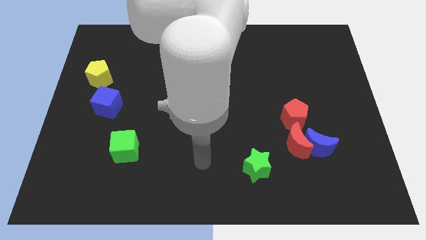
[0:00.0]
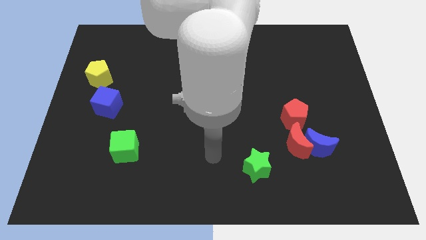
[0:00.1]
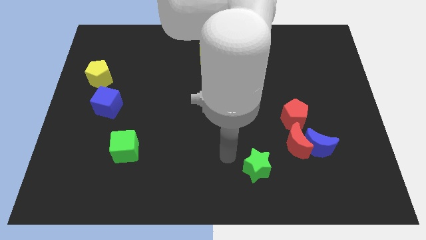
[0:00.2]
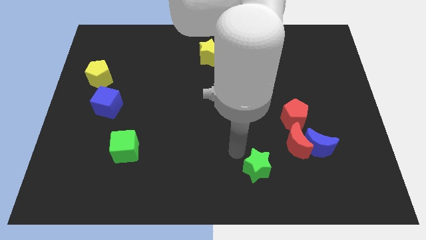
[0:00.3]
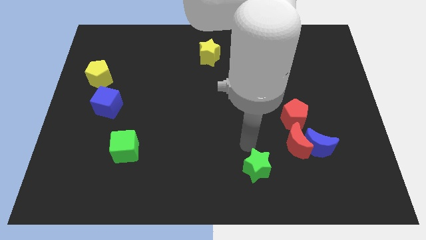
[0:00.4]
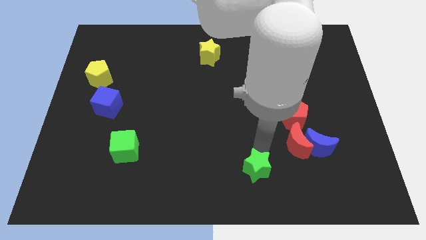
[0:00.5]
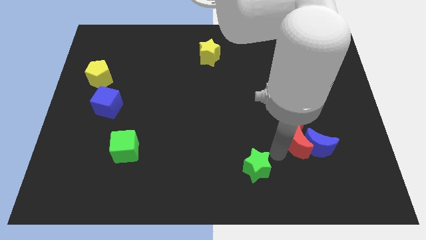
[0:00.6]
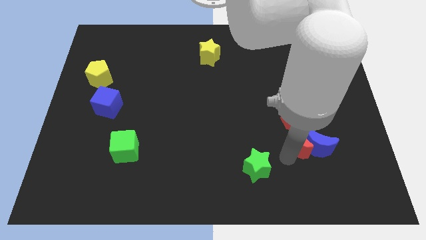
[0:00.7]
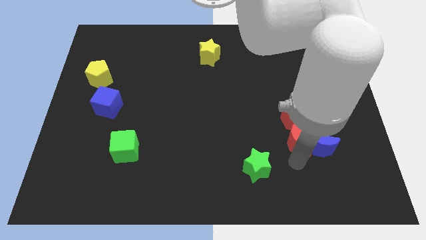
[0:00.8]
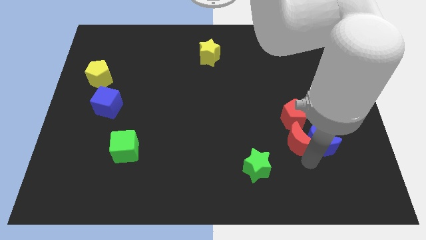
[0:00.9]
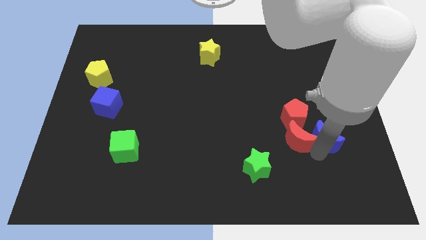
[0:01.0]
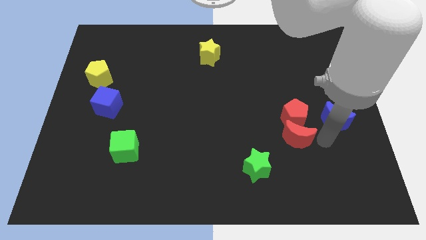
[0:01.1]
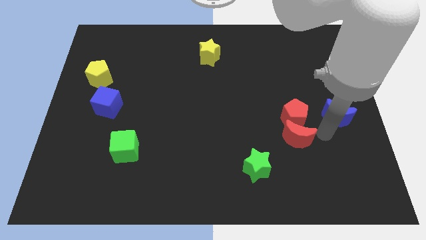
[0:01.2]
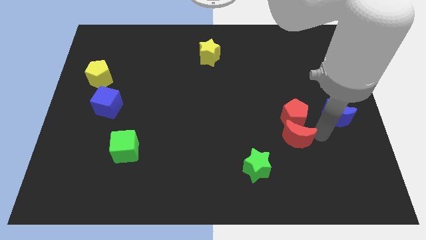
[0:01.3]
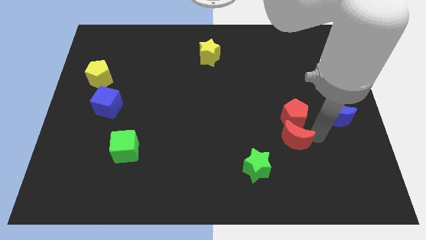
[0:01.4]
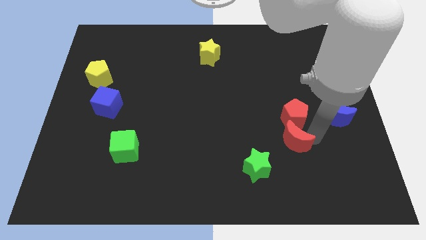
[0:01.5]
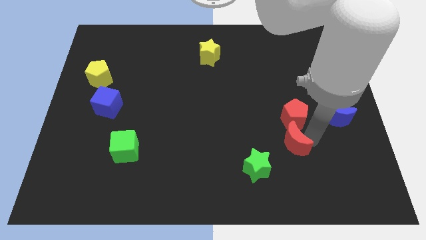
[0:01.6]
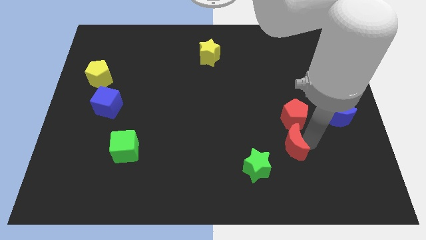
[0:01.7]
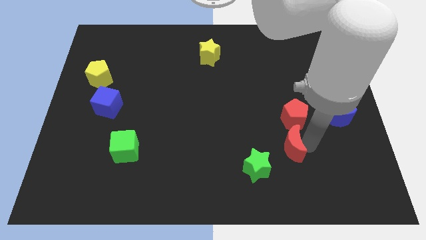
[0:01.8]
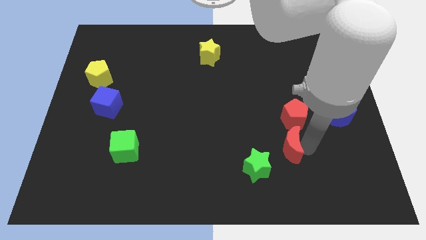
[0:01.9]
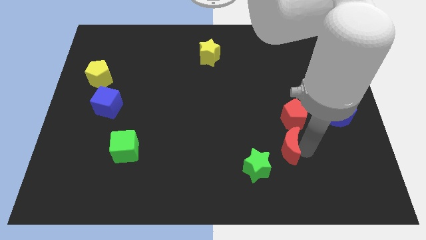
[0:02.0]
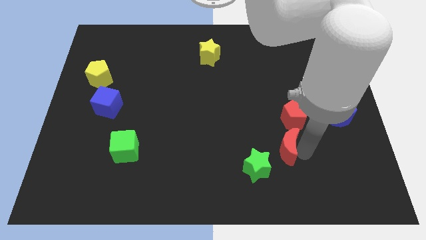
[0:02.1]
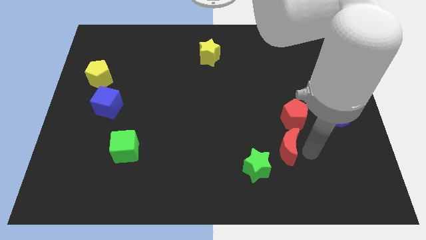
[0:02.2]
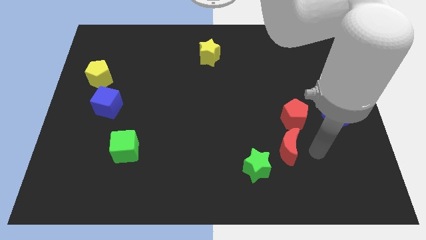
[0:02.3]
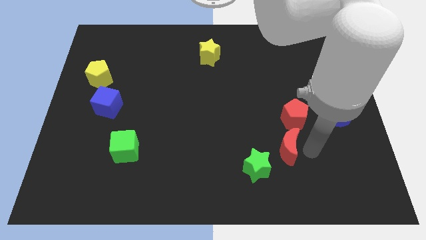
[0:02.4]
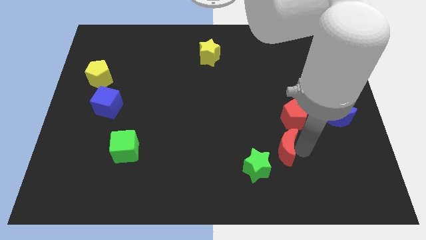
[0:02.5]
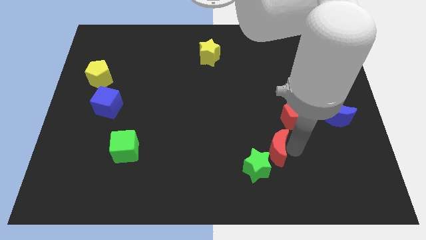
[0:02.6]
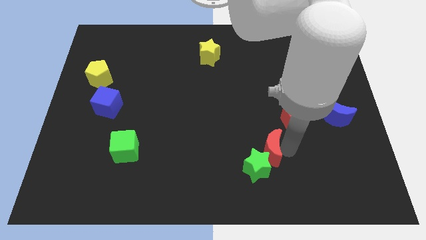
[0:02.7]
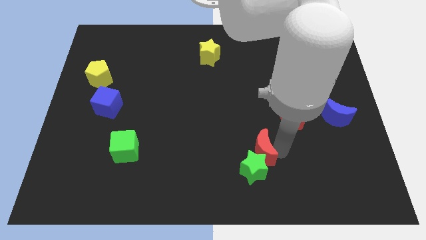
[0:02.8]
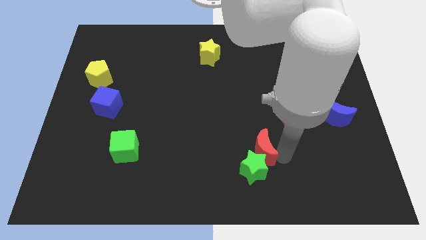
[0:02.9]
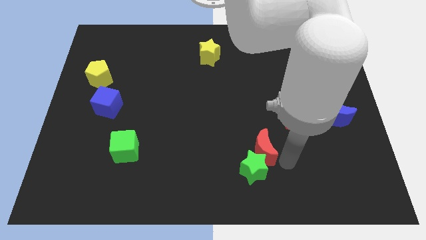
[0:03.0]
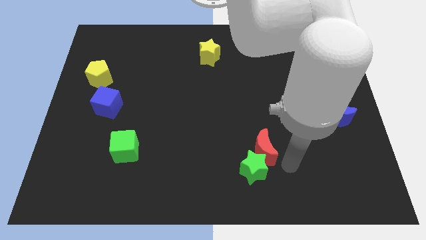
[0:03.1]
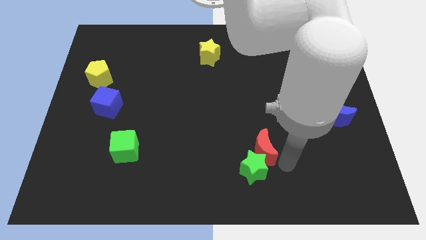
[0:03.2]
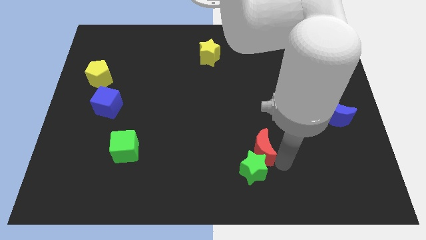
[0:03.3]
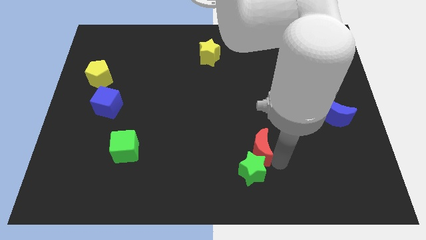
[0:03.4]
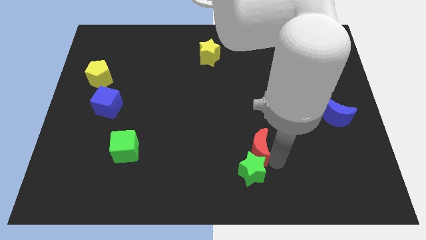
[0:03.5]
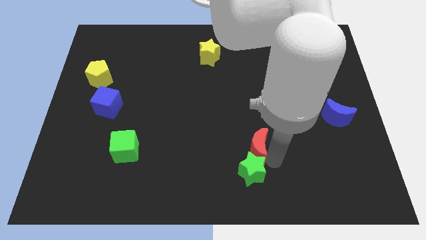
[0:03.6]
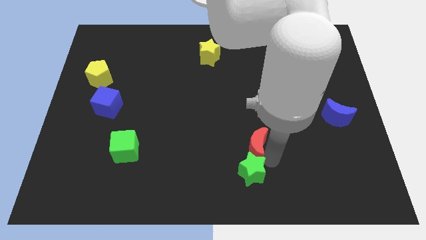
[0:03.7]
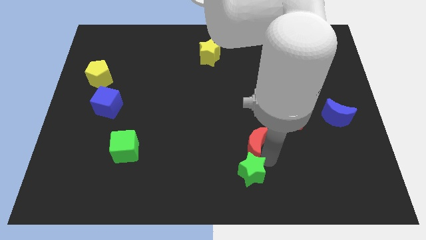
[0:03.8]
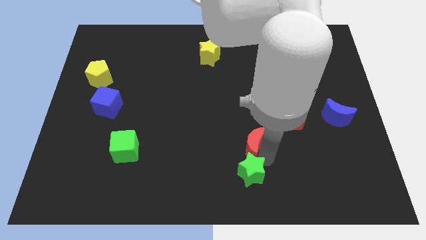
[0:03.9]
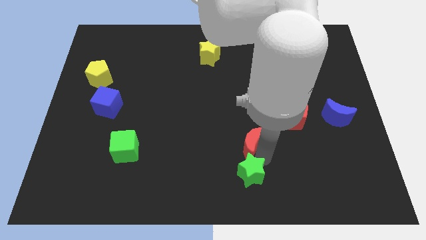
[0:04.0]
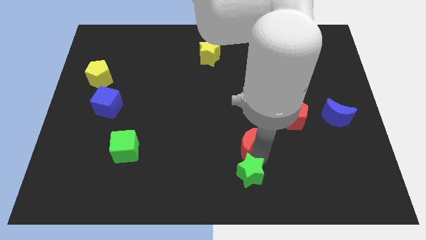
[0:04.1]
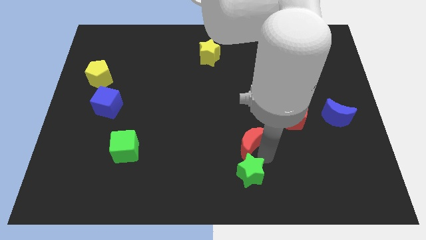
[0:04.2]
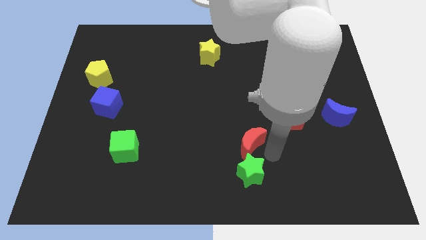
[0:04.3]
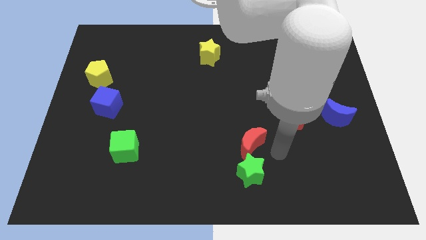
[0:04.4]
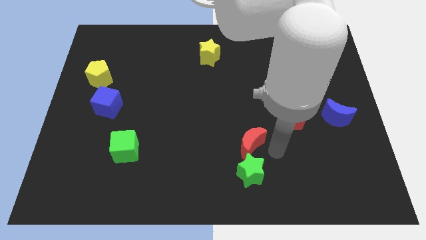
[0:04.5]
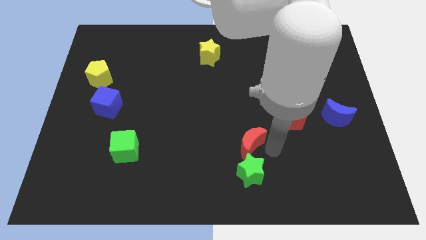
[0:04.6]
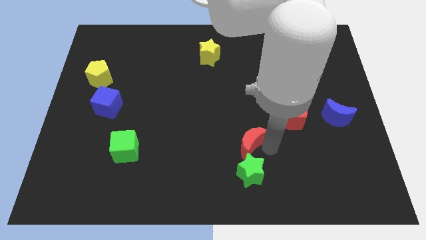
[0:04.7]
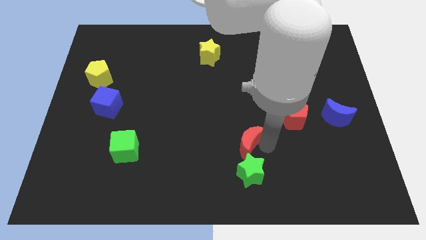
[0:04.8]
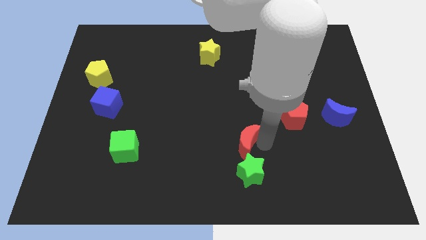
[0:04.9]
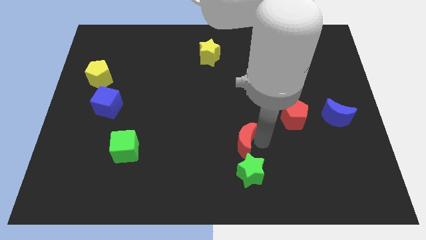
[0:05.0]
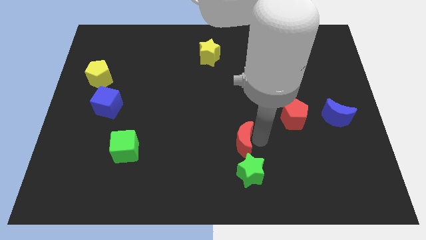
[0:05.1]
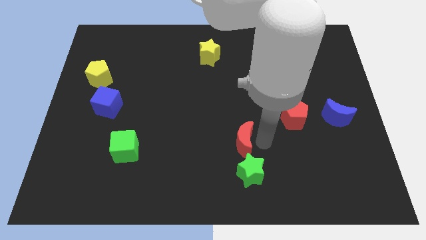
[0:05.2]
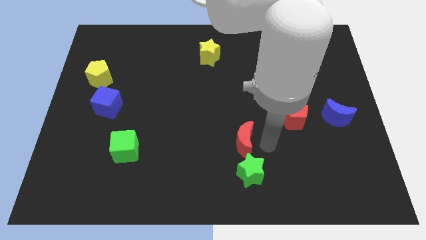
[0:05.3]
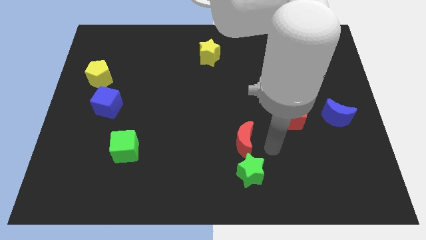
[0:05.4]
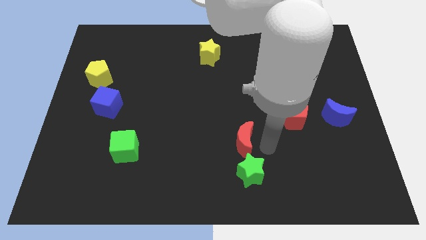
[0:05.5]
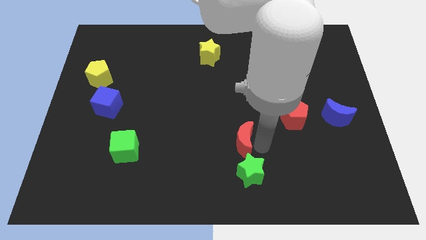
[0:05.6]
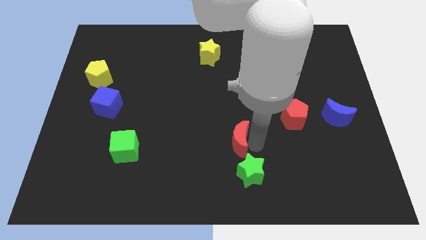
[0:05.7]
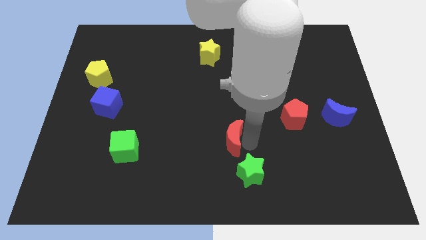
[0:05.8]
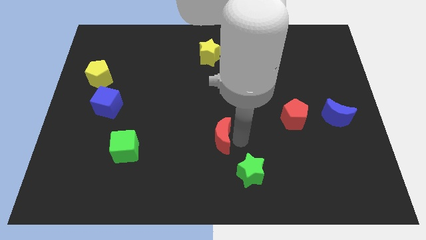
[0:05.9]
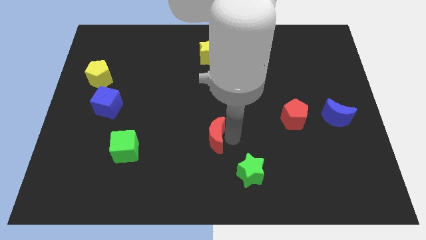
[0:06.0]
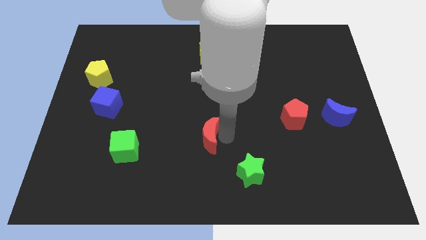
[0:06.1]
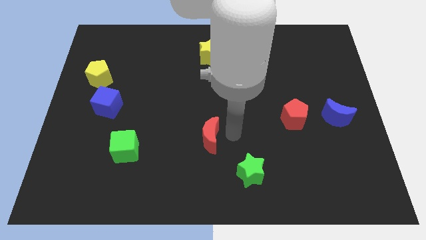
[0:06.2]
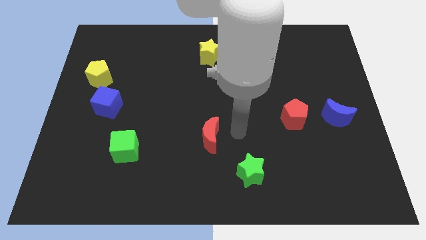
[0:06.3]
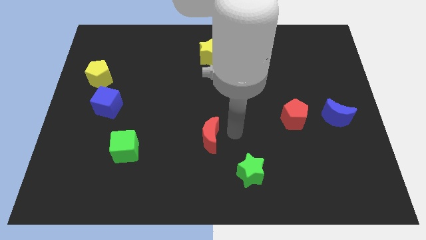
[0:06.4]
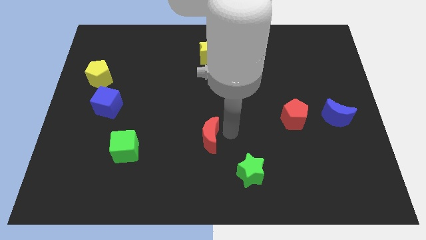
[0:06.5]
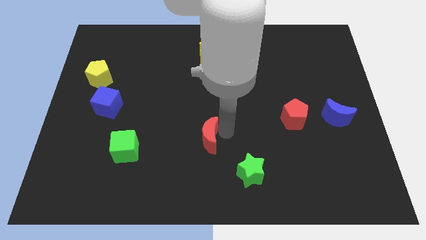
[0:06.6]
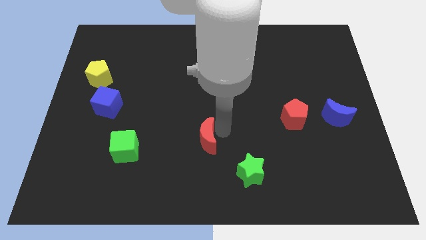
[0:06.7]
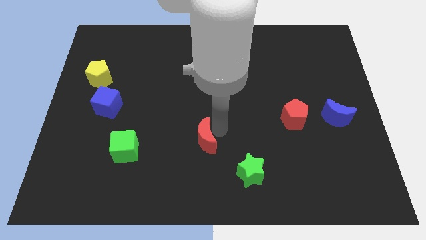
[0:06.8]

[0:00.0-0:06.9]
slide the red moon left

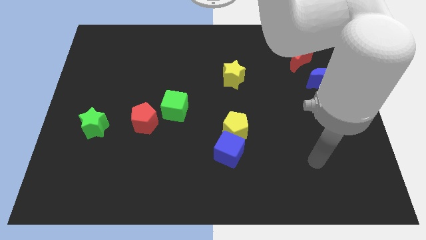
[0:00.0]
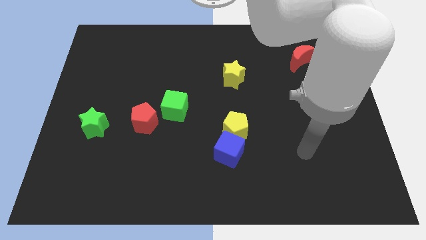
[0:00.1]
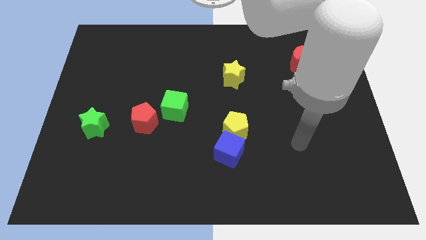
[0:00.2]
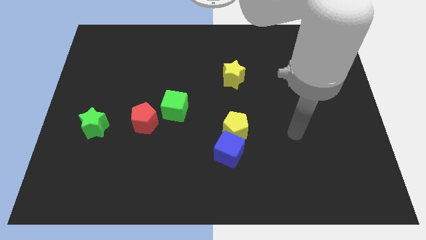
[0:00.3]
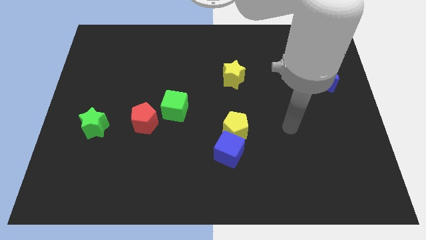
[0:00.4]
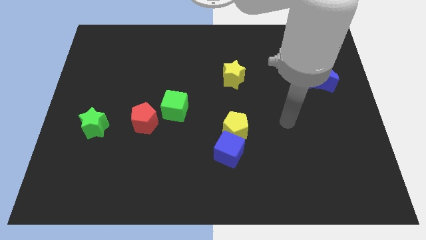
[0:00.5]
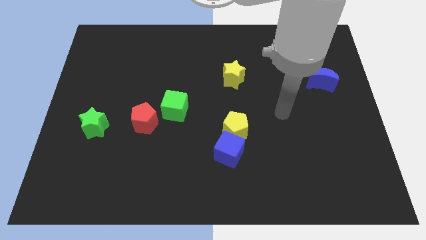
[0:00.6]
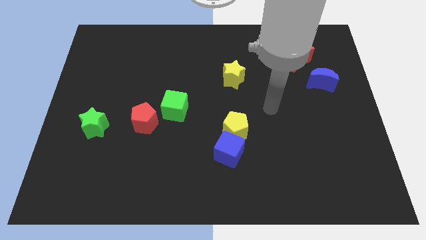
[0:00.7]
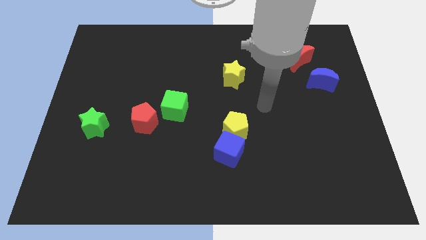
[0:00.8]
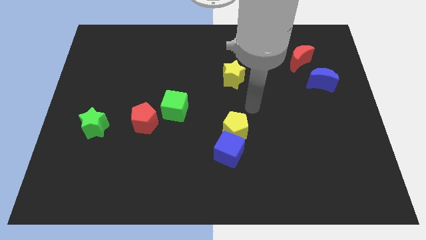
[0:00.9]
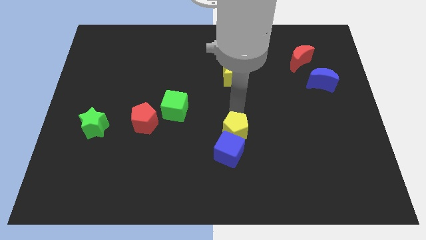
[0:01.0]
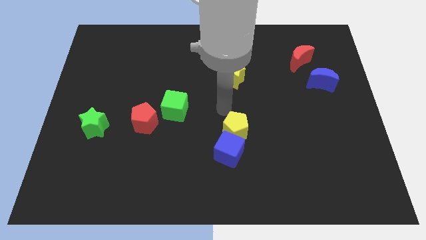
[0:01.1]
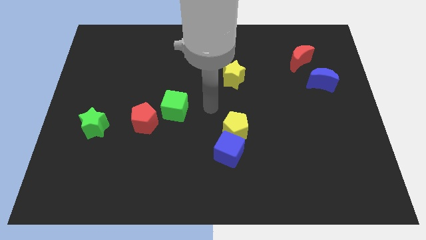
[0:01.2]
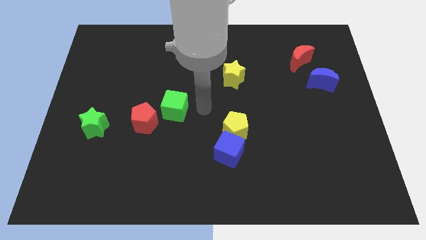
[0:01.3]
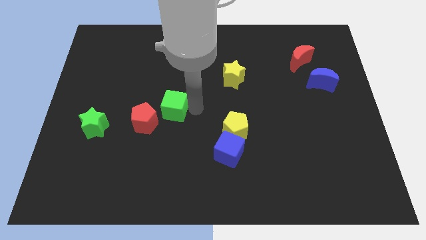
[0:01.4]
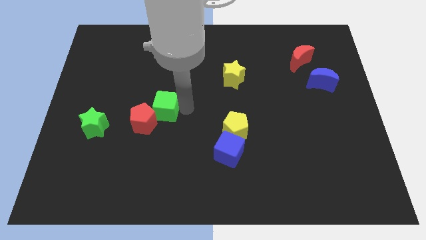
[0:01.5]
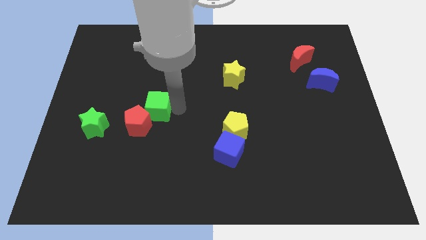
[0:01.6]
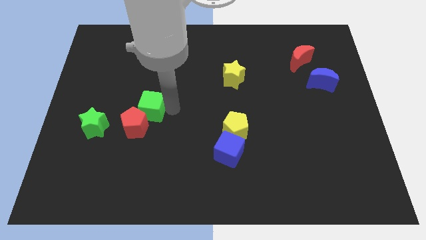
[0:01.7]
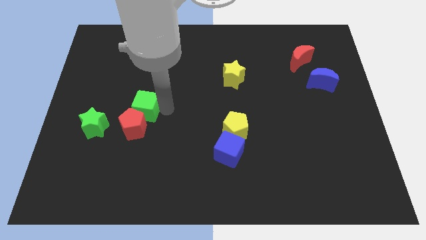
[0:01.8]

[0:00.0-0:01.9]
slide the green cube left somewhat
